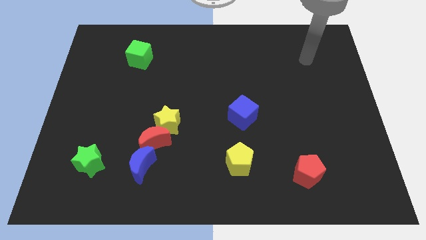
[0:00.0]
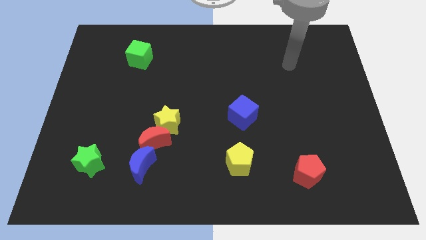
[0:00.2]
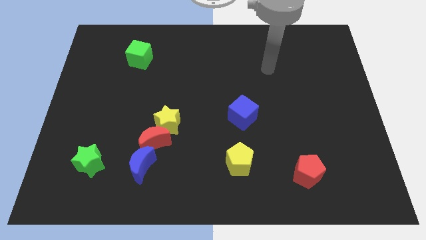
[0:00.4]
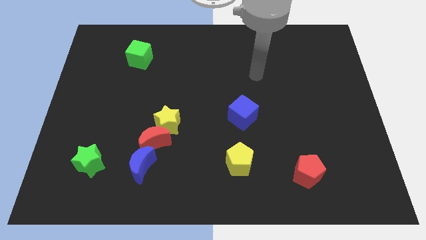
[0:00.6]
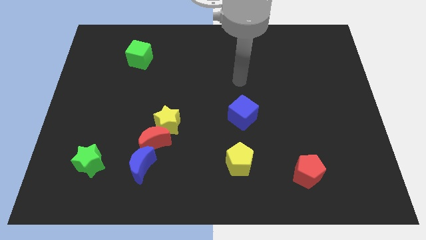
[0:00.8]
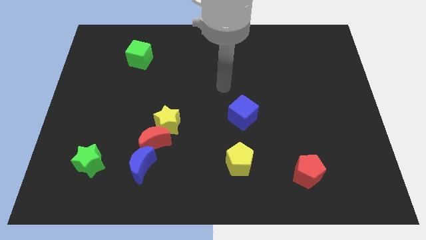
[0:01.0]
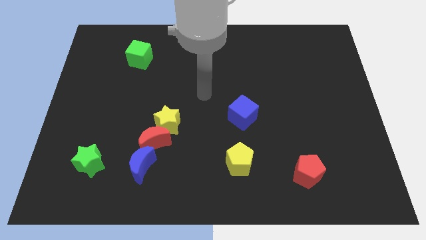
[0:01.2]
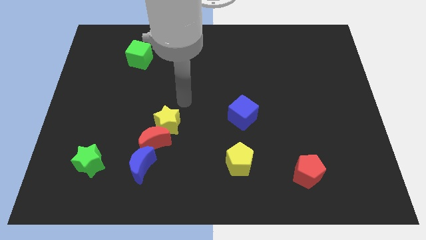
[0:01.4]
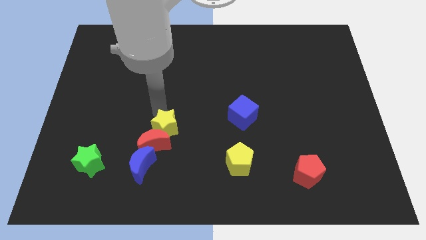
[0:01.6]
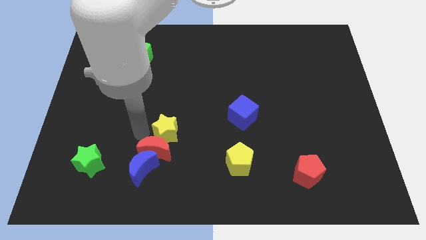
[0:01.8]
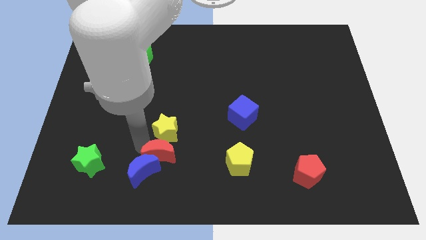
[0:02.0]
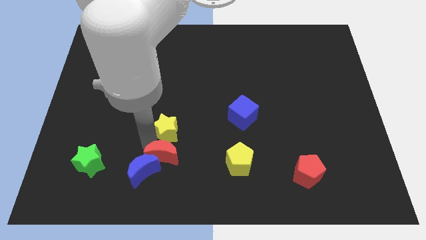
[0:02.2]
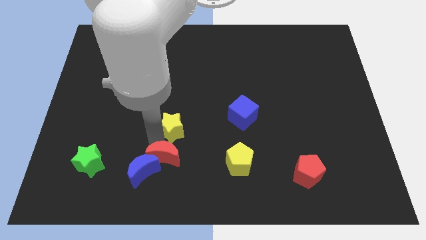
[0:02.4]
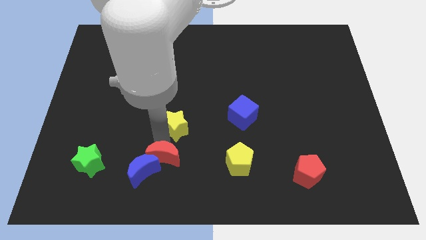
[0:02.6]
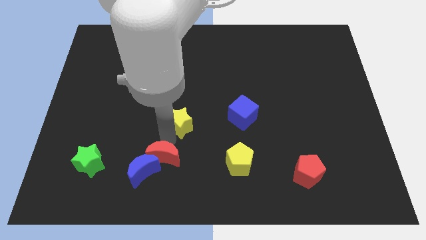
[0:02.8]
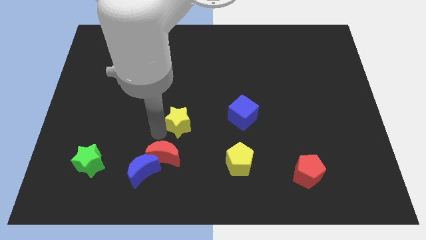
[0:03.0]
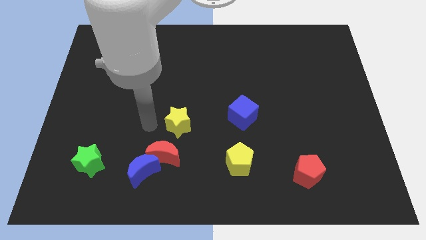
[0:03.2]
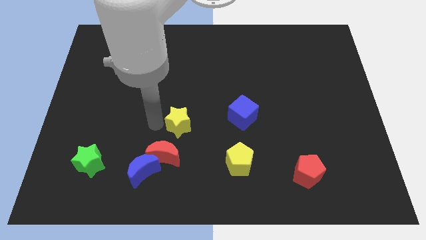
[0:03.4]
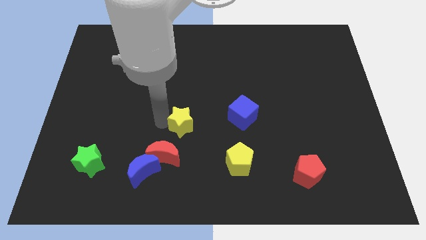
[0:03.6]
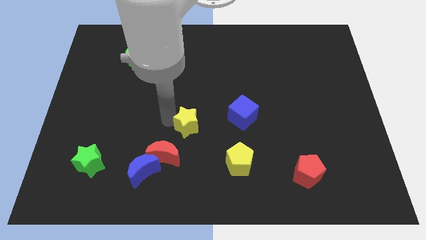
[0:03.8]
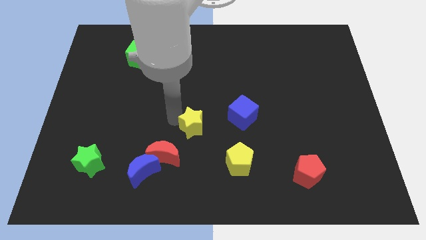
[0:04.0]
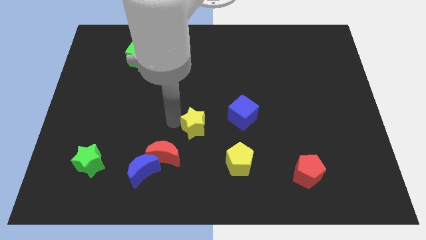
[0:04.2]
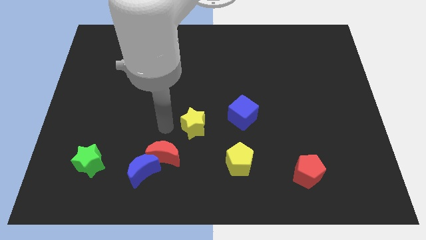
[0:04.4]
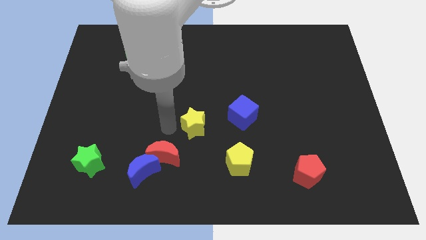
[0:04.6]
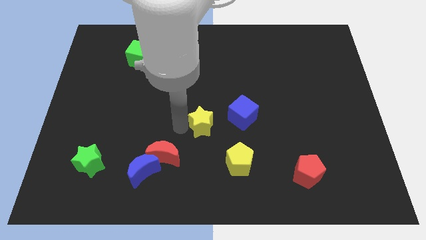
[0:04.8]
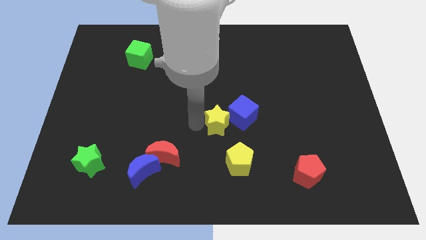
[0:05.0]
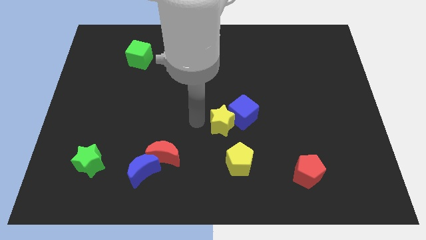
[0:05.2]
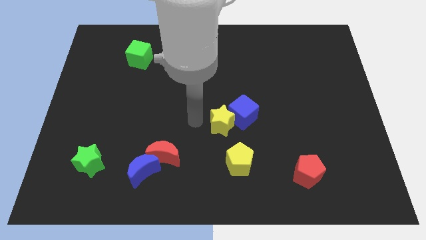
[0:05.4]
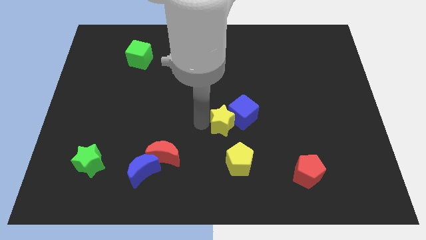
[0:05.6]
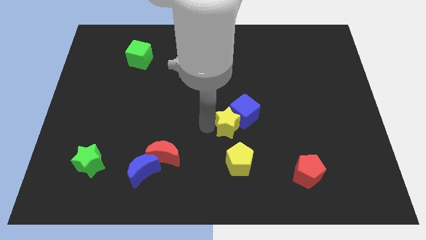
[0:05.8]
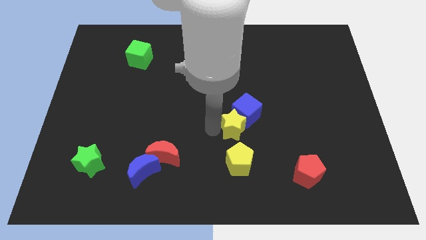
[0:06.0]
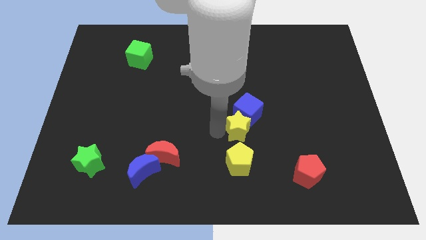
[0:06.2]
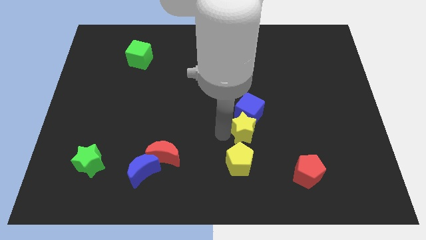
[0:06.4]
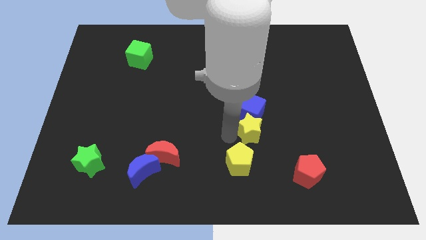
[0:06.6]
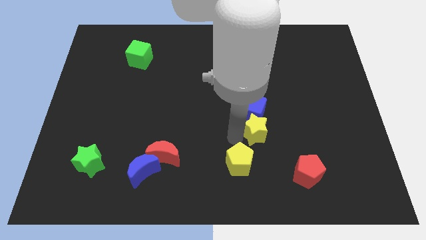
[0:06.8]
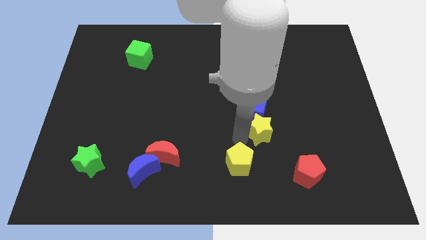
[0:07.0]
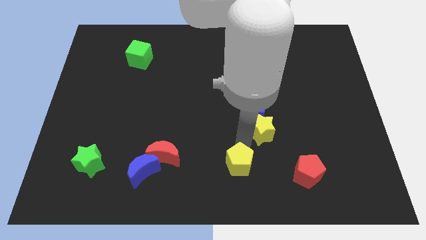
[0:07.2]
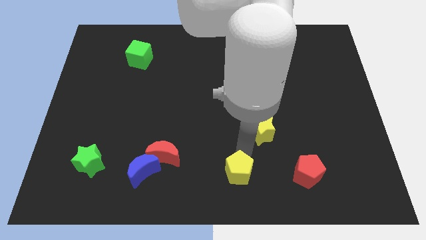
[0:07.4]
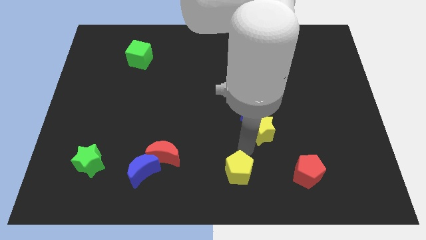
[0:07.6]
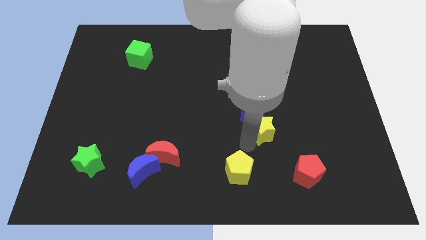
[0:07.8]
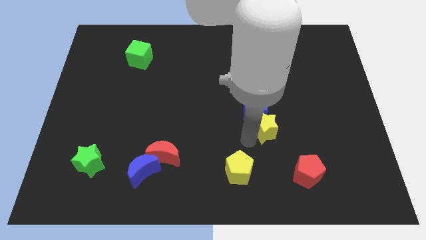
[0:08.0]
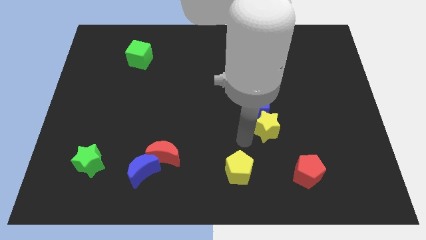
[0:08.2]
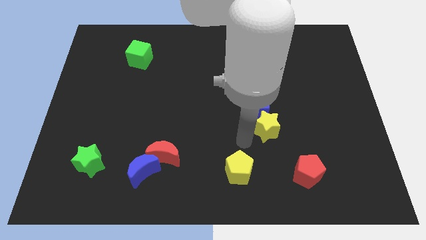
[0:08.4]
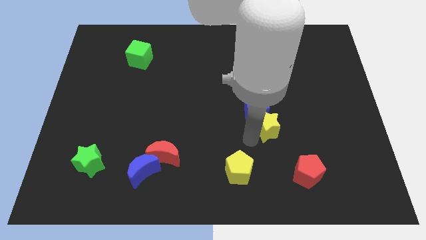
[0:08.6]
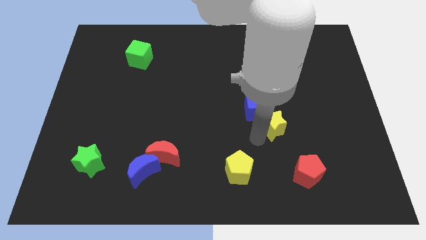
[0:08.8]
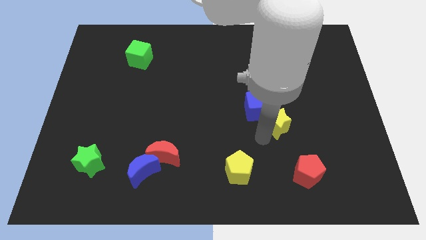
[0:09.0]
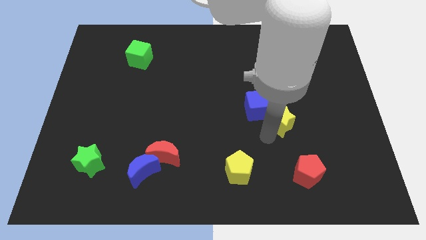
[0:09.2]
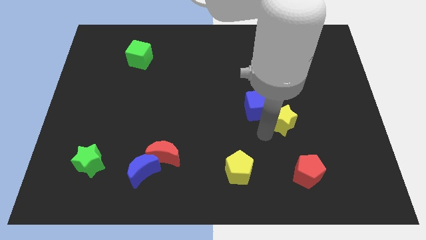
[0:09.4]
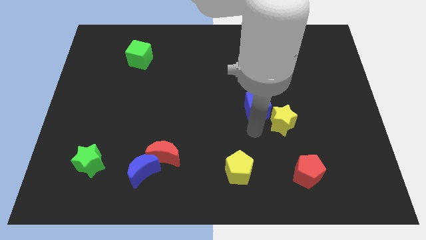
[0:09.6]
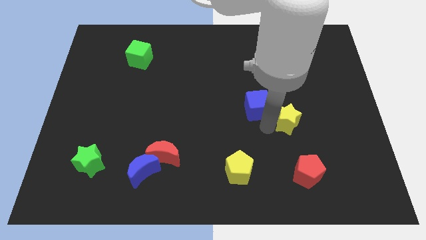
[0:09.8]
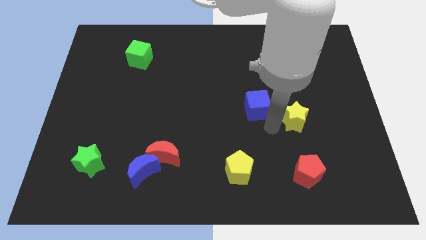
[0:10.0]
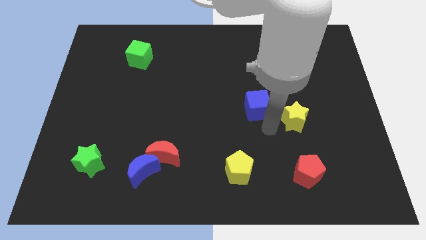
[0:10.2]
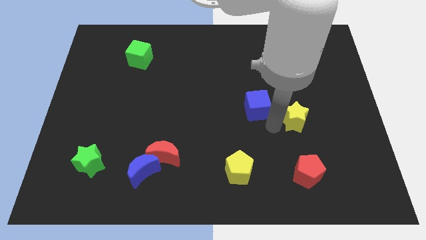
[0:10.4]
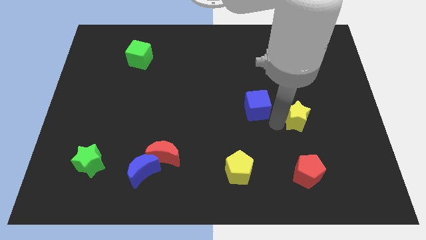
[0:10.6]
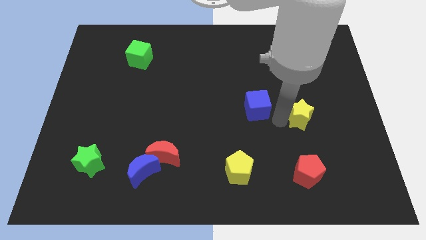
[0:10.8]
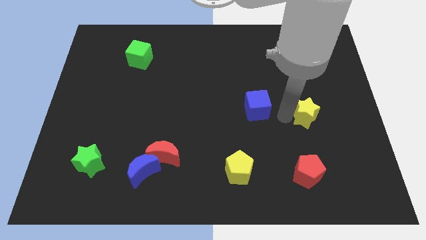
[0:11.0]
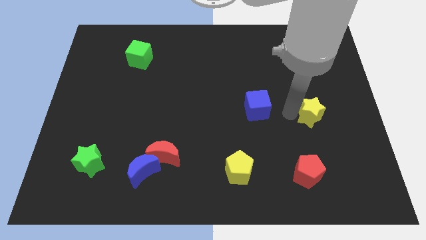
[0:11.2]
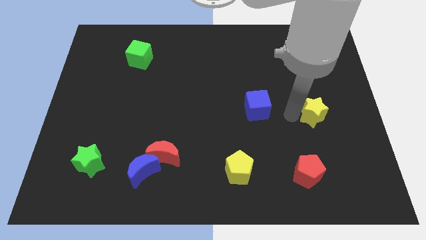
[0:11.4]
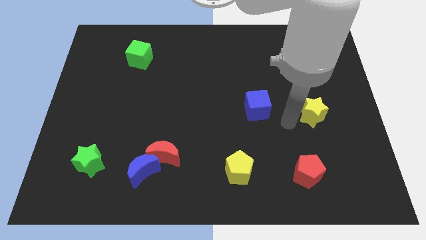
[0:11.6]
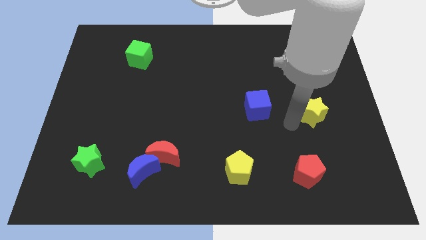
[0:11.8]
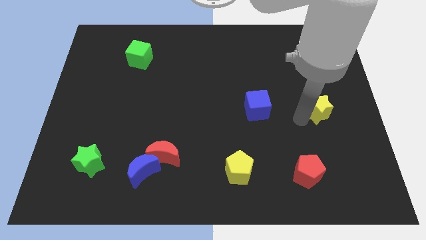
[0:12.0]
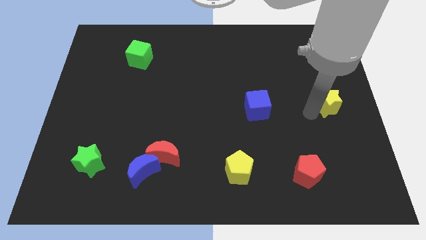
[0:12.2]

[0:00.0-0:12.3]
push the yellow star to the center right
